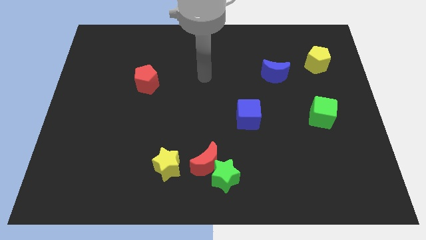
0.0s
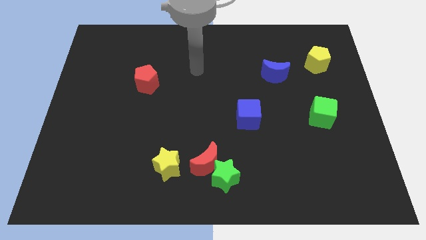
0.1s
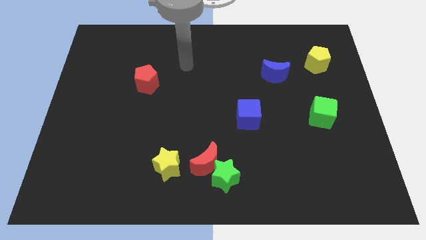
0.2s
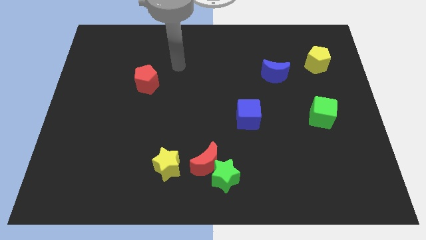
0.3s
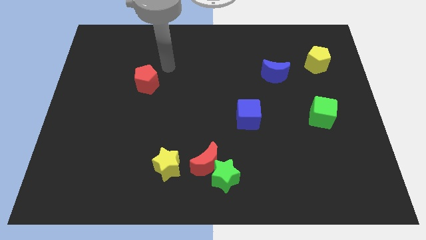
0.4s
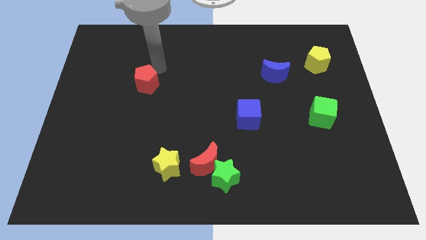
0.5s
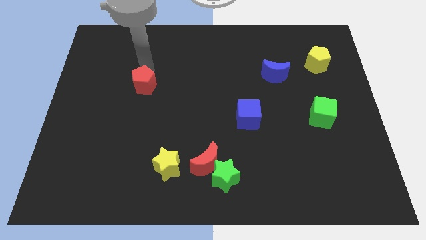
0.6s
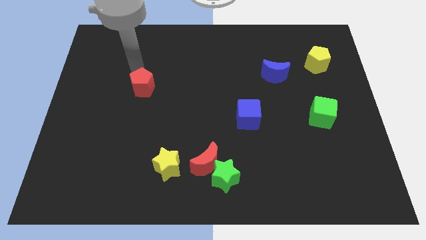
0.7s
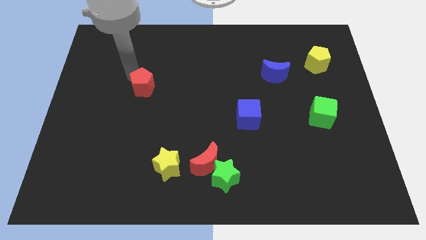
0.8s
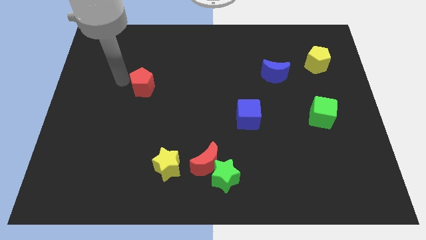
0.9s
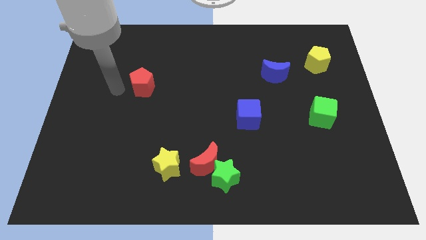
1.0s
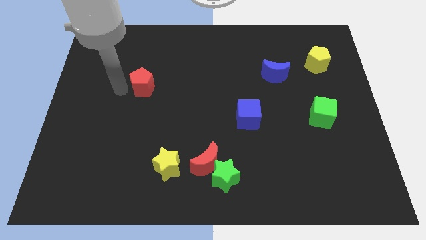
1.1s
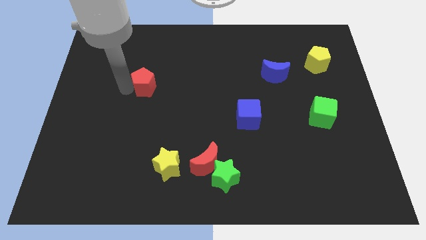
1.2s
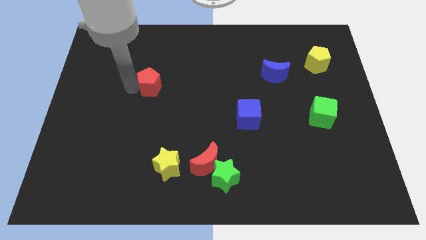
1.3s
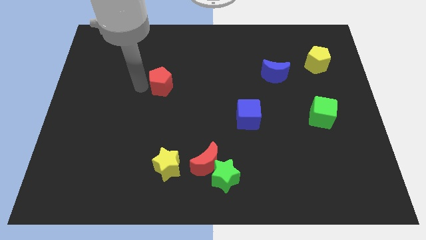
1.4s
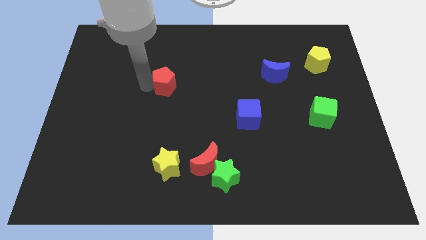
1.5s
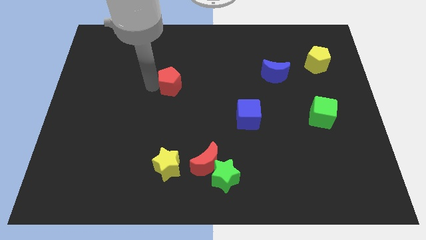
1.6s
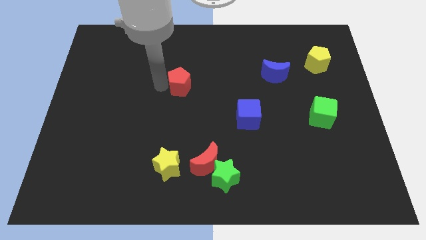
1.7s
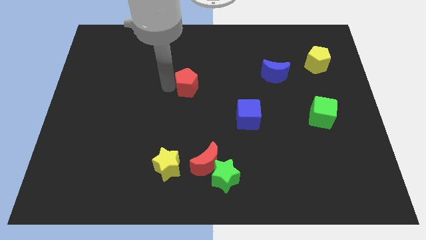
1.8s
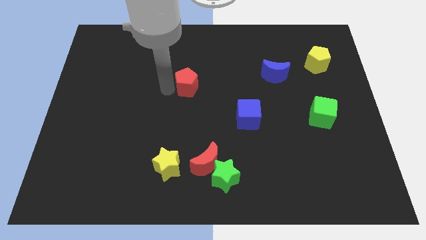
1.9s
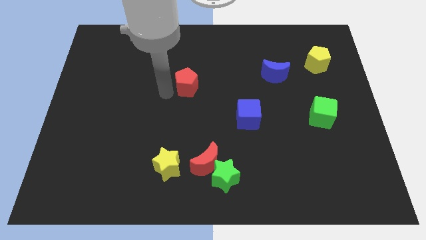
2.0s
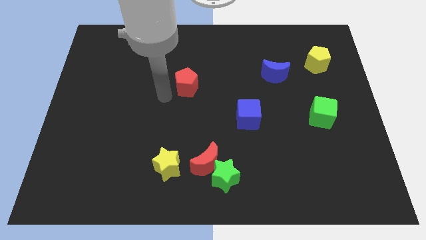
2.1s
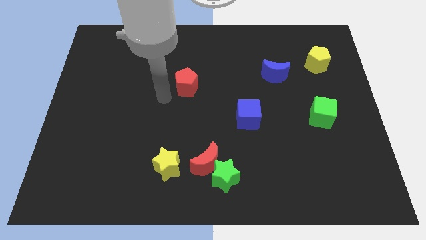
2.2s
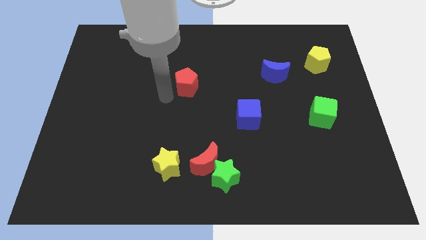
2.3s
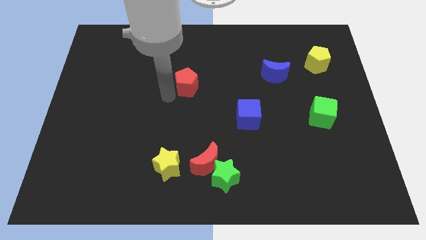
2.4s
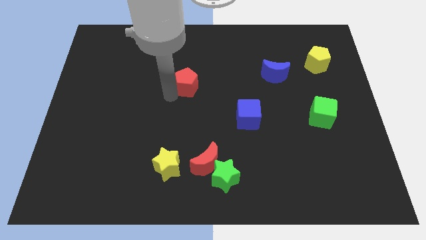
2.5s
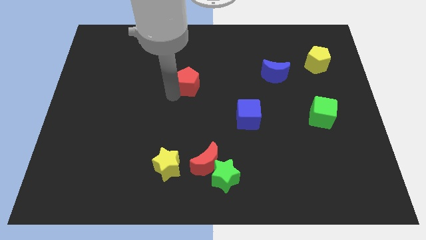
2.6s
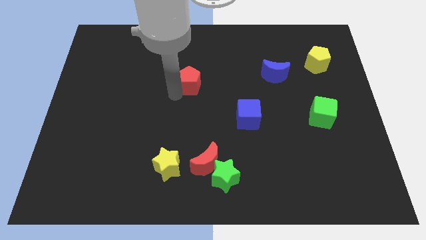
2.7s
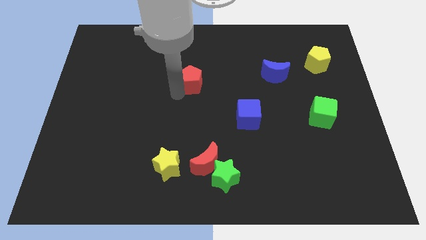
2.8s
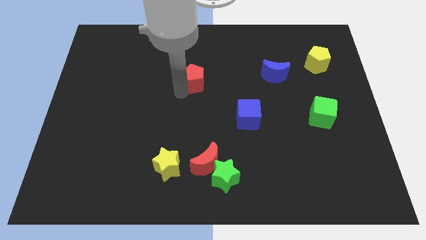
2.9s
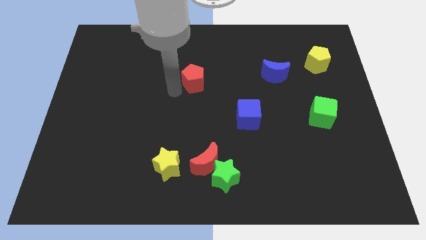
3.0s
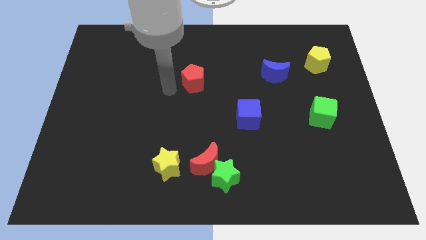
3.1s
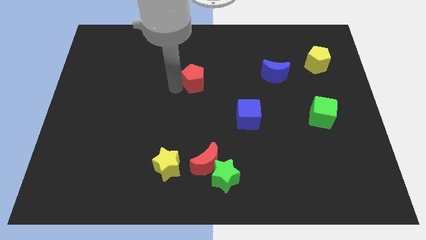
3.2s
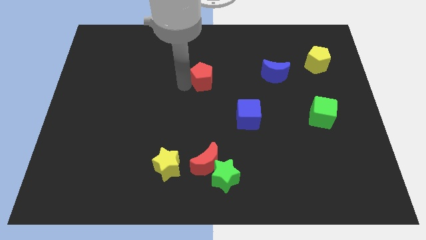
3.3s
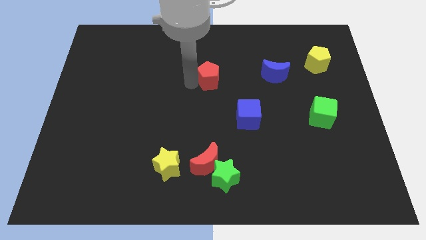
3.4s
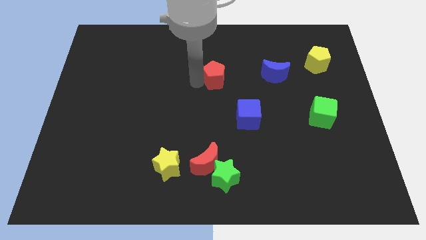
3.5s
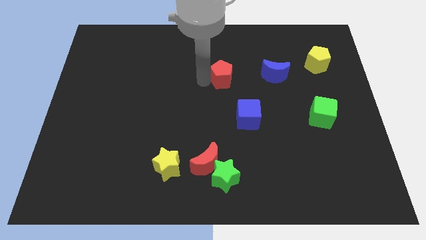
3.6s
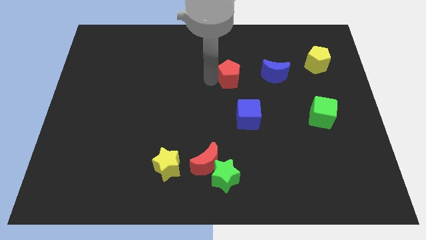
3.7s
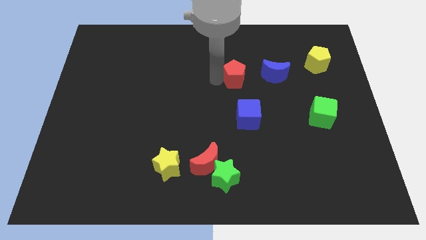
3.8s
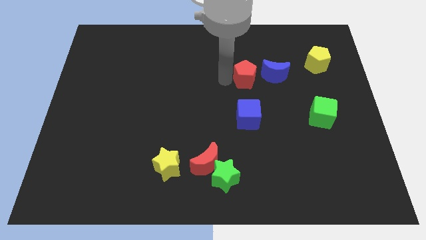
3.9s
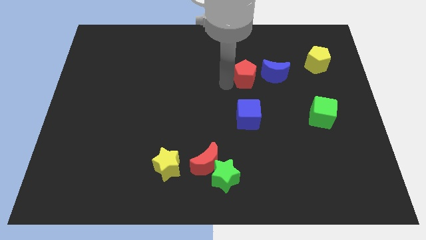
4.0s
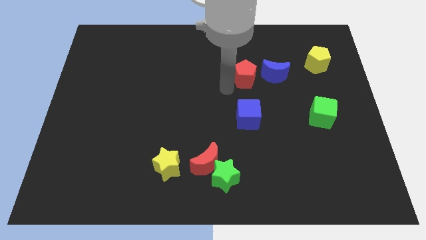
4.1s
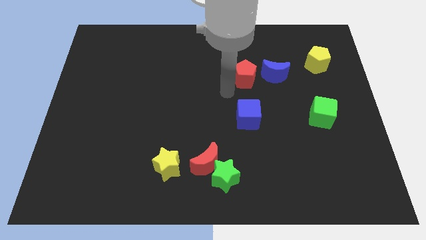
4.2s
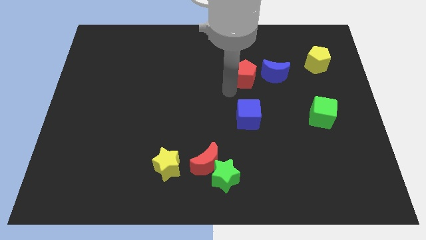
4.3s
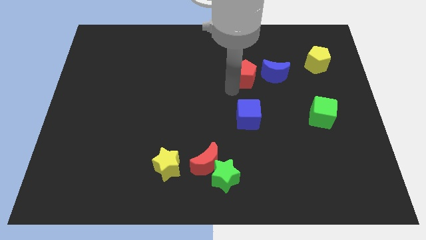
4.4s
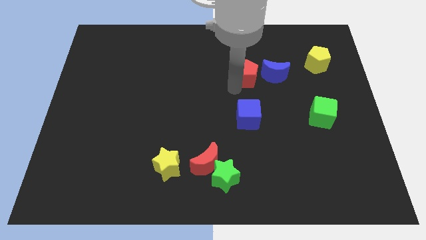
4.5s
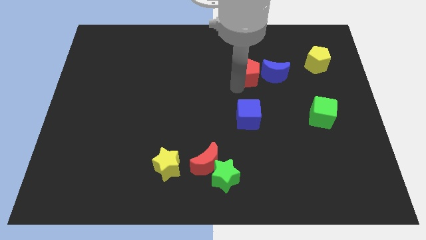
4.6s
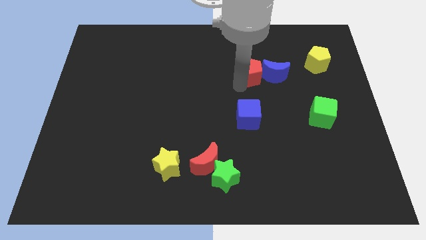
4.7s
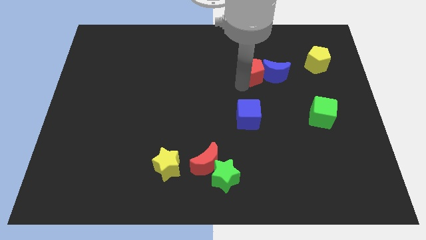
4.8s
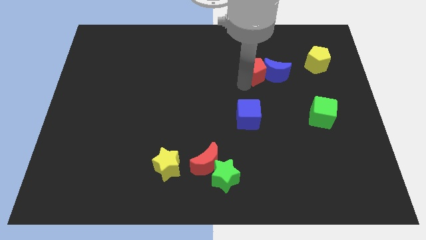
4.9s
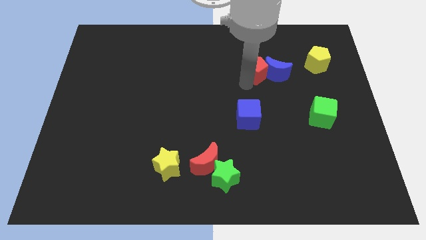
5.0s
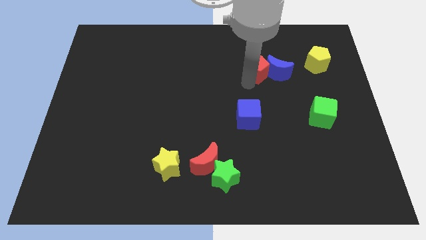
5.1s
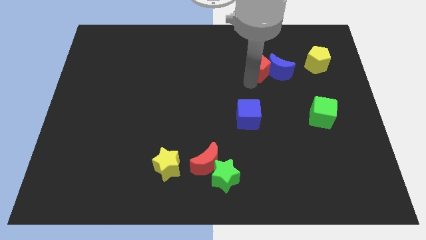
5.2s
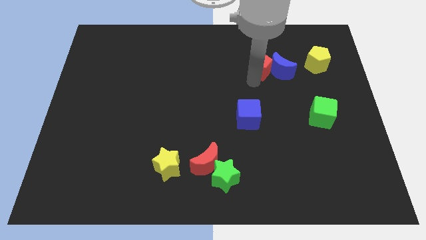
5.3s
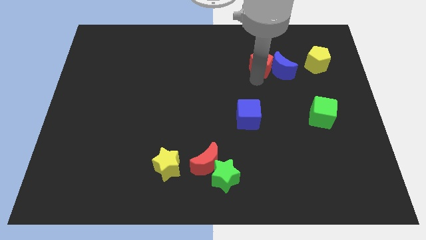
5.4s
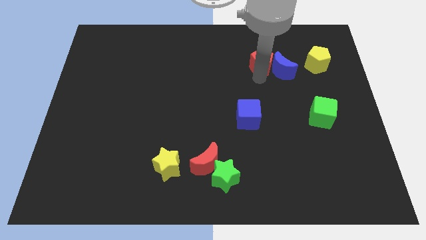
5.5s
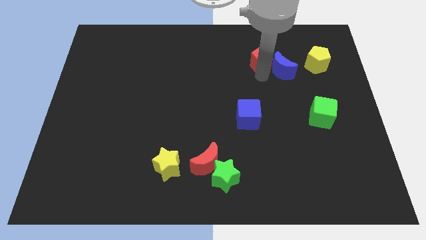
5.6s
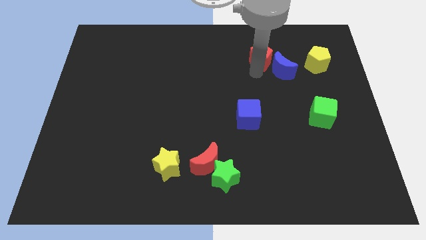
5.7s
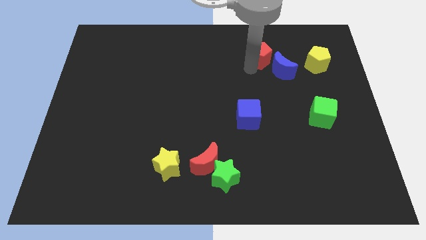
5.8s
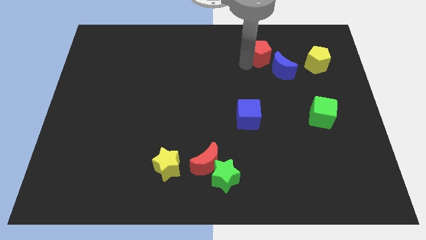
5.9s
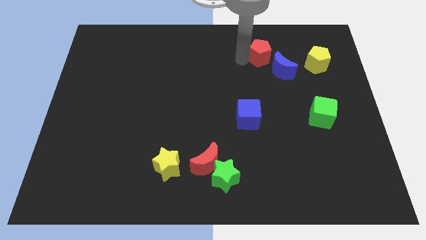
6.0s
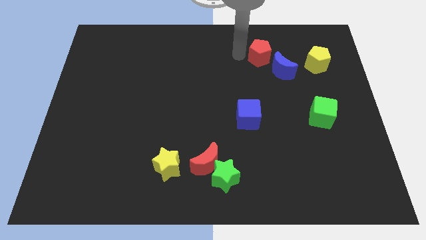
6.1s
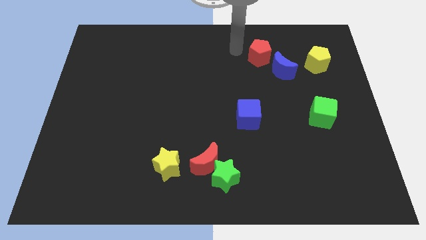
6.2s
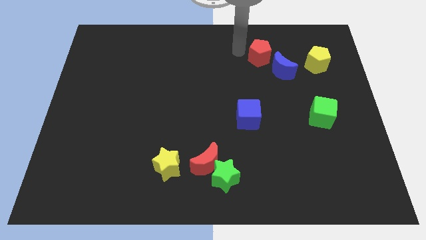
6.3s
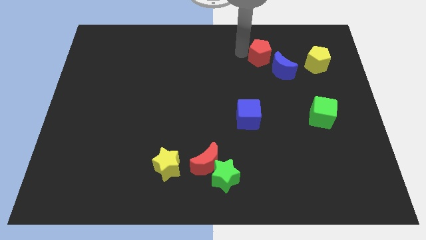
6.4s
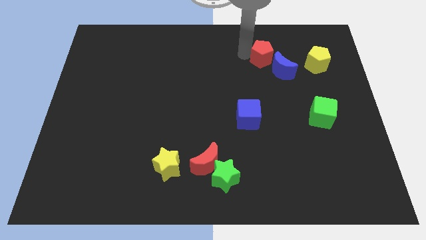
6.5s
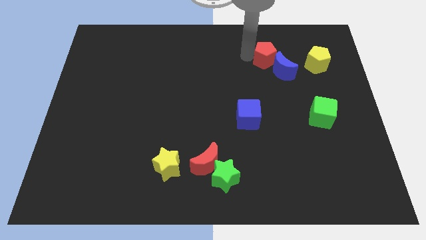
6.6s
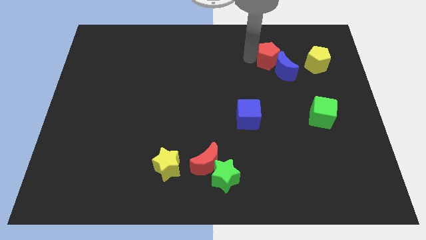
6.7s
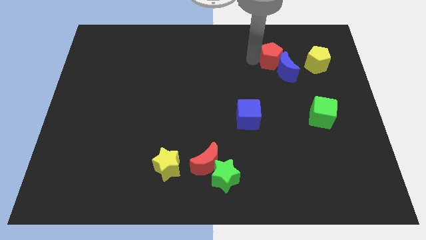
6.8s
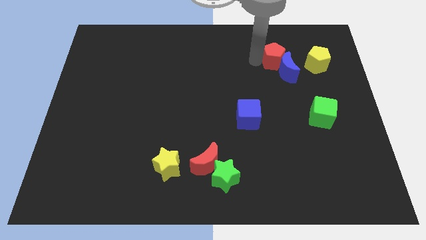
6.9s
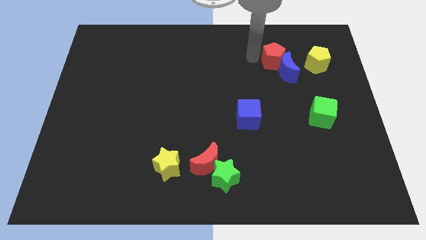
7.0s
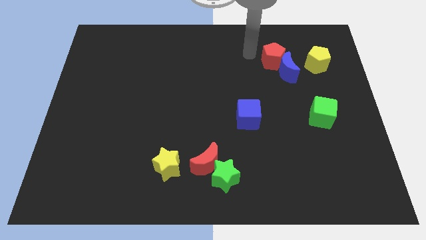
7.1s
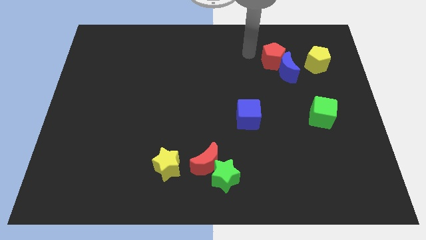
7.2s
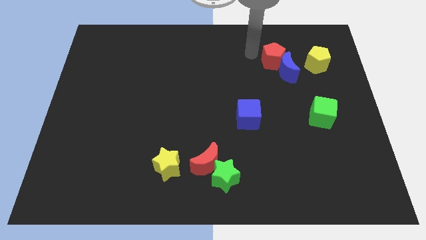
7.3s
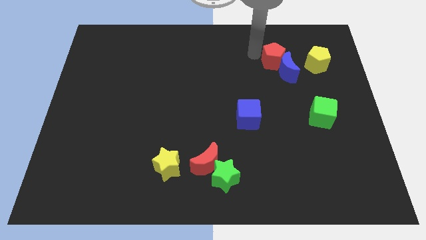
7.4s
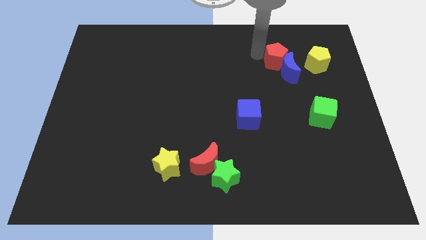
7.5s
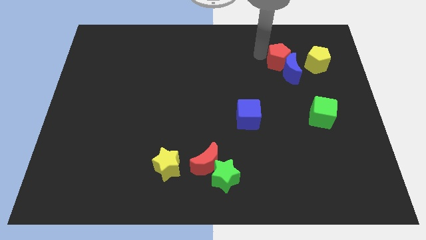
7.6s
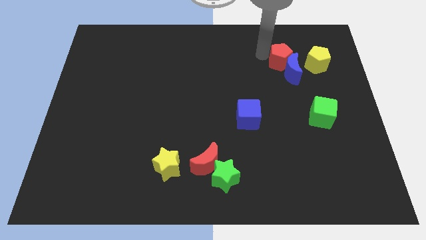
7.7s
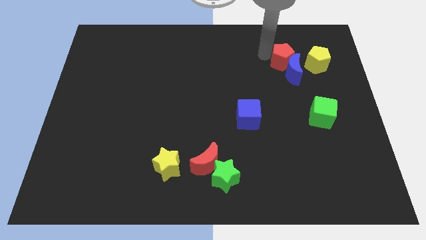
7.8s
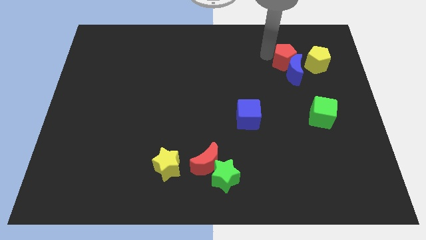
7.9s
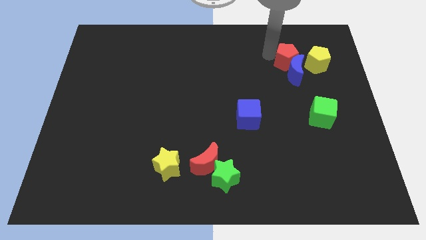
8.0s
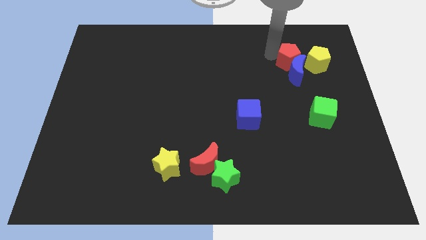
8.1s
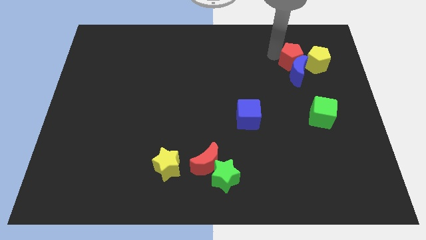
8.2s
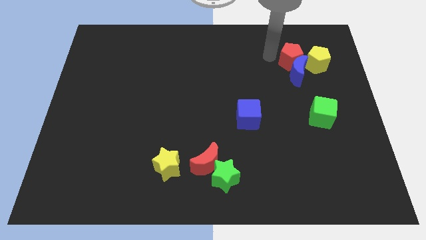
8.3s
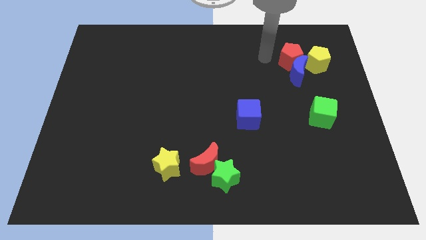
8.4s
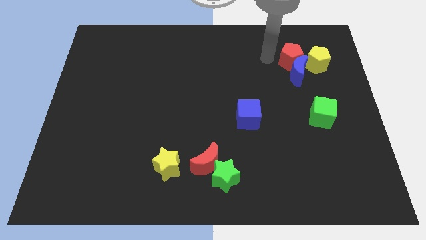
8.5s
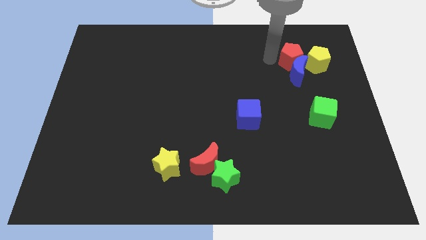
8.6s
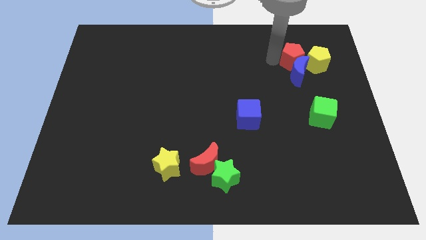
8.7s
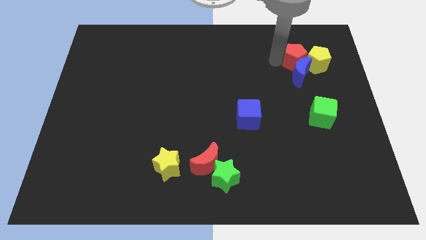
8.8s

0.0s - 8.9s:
push the red pentagon close to the yellow pentagon
